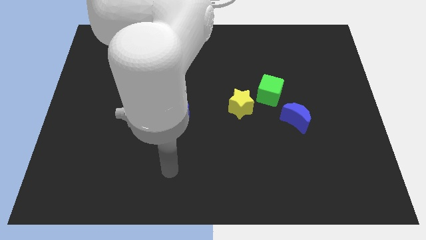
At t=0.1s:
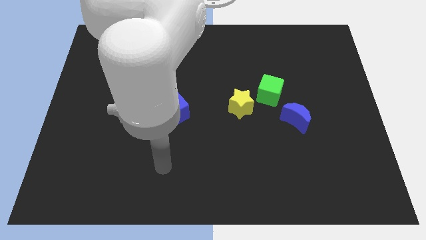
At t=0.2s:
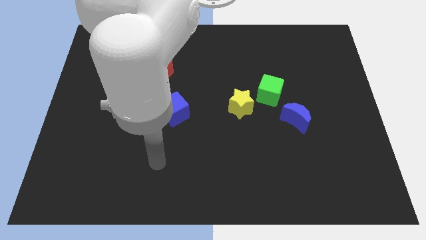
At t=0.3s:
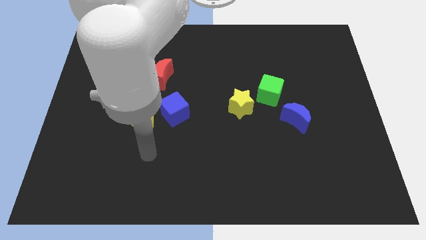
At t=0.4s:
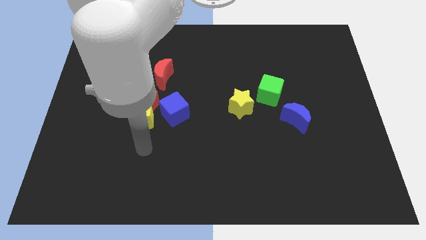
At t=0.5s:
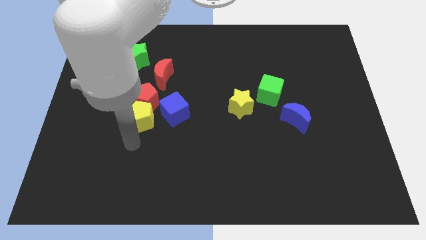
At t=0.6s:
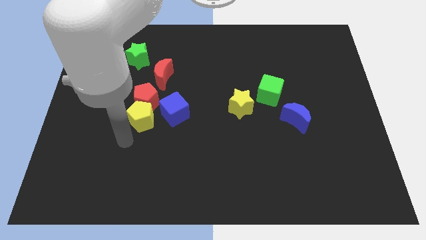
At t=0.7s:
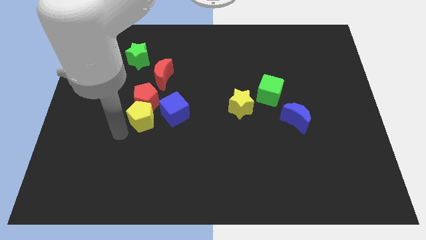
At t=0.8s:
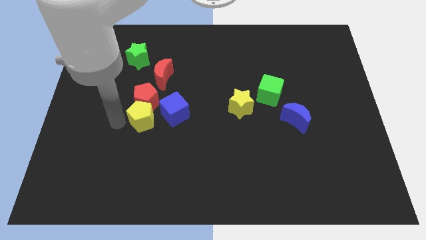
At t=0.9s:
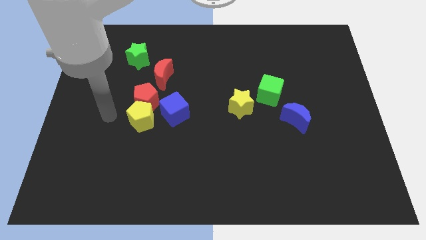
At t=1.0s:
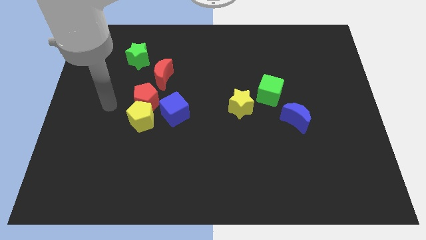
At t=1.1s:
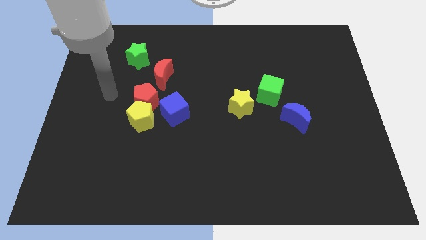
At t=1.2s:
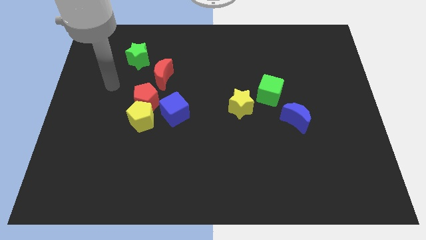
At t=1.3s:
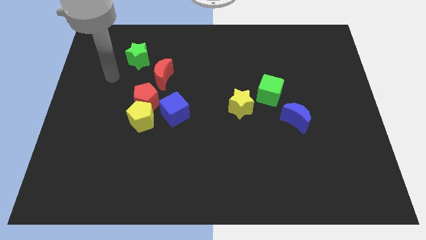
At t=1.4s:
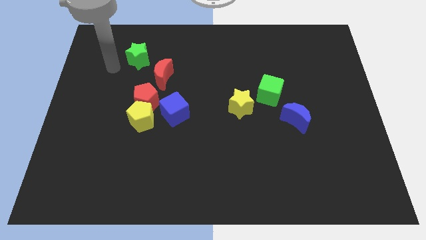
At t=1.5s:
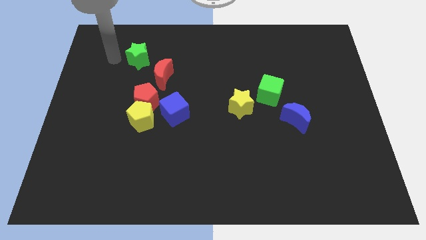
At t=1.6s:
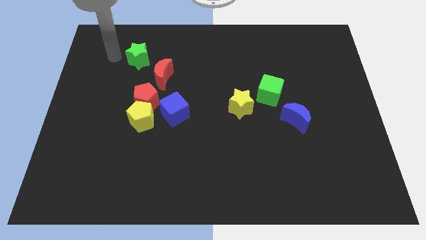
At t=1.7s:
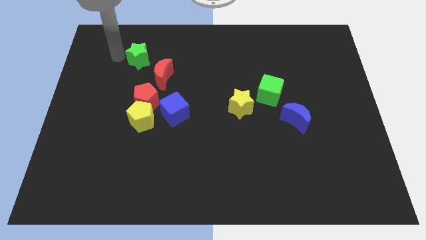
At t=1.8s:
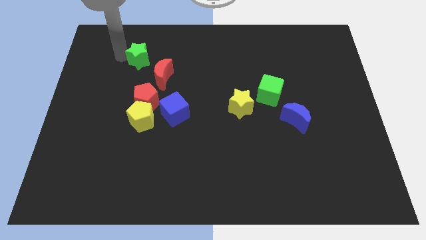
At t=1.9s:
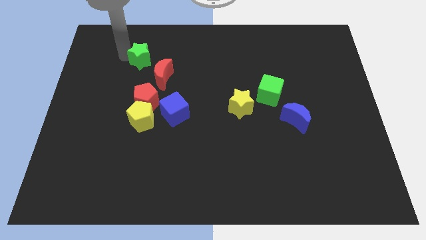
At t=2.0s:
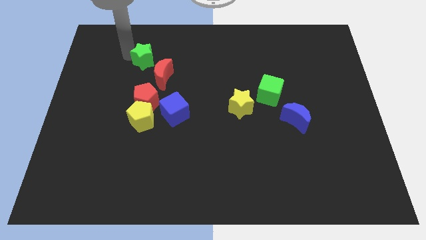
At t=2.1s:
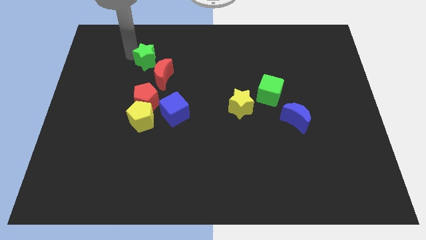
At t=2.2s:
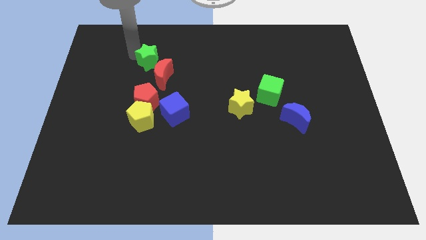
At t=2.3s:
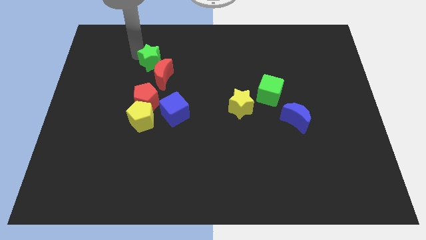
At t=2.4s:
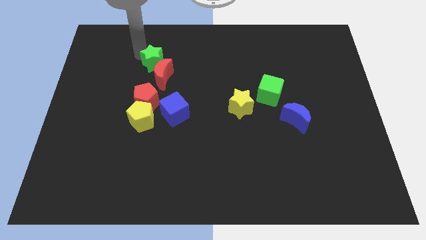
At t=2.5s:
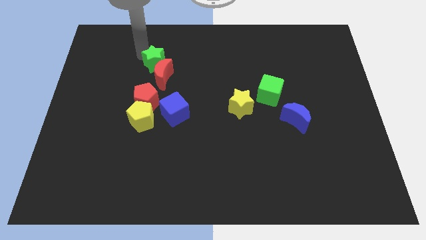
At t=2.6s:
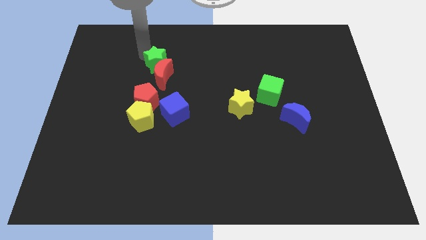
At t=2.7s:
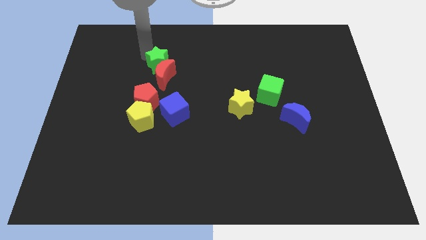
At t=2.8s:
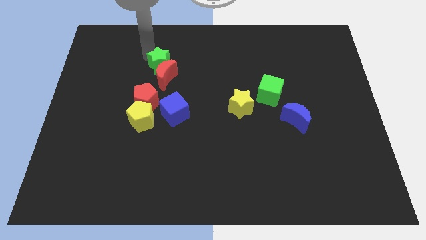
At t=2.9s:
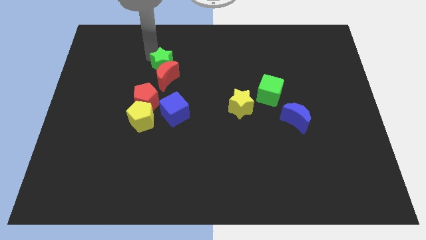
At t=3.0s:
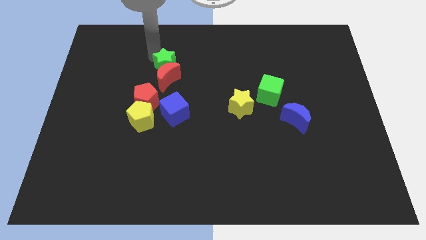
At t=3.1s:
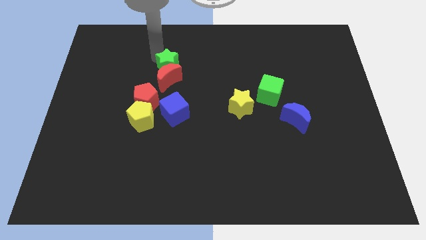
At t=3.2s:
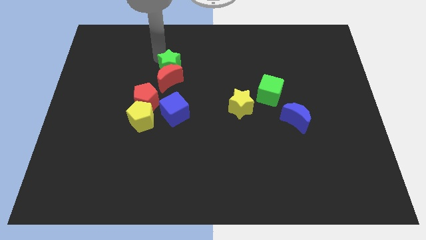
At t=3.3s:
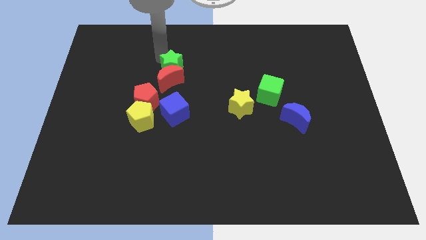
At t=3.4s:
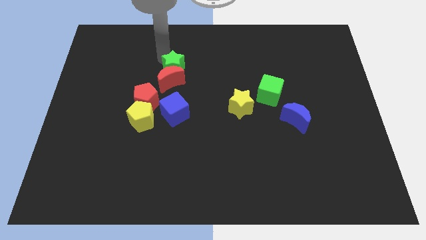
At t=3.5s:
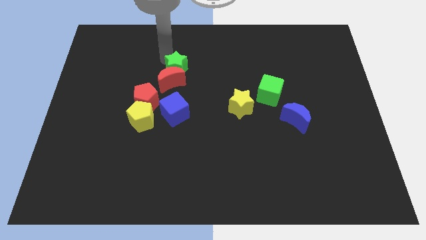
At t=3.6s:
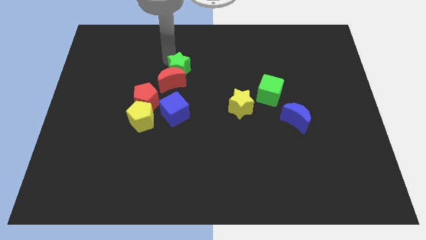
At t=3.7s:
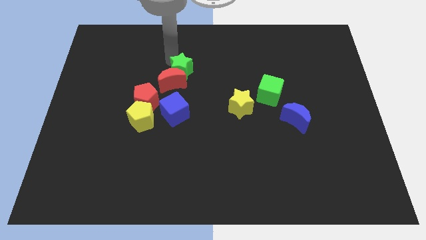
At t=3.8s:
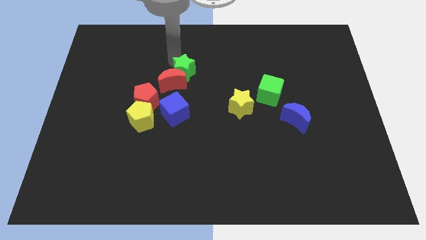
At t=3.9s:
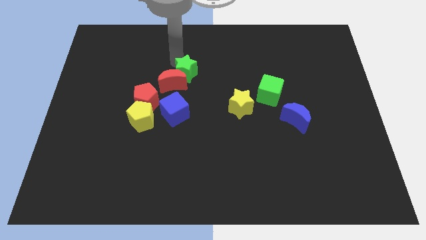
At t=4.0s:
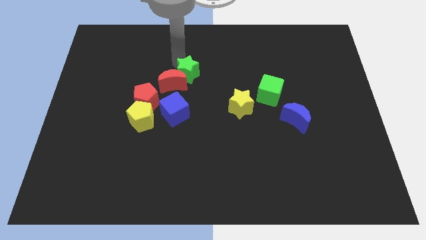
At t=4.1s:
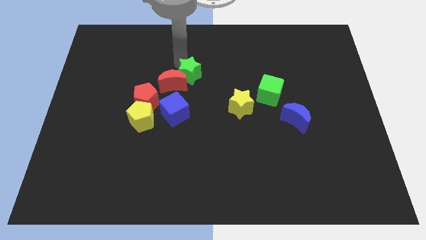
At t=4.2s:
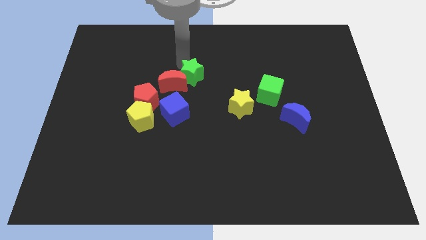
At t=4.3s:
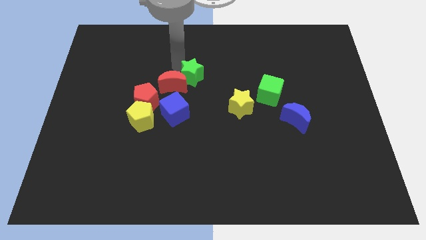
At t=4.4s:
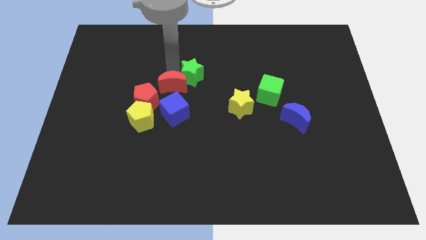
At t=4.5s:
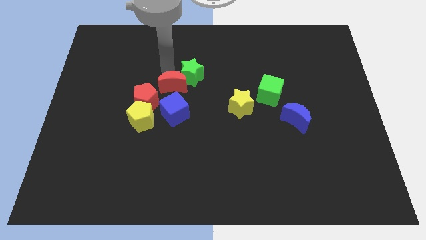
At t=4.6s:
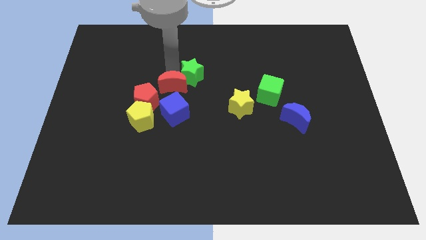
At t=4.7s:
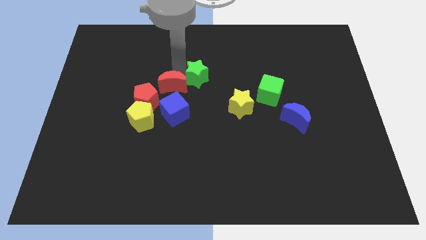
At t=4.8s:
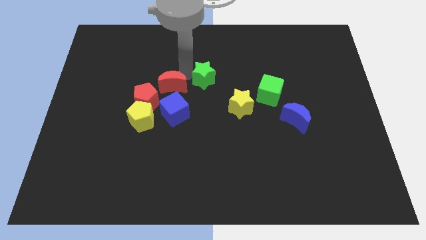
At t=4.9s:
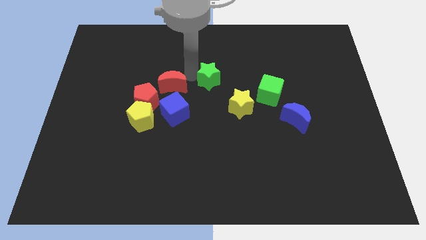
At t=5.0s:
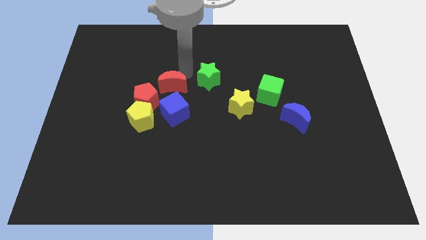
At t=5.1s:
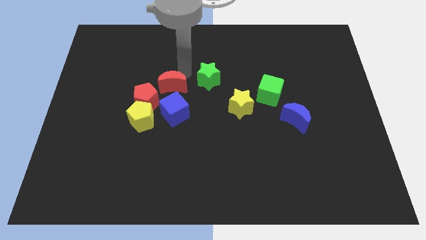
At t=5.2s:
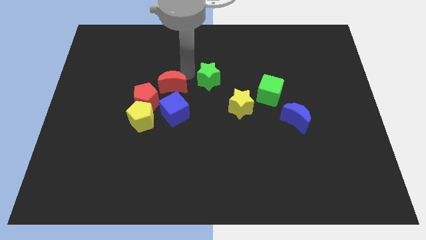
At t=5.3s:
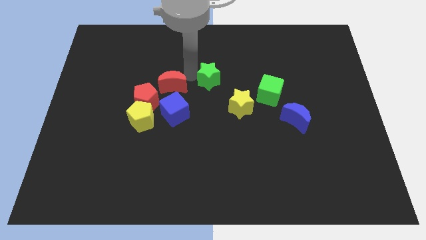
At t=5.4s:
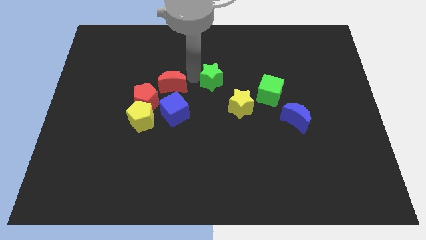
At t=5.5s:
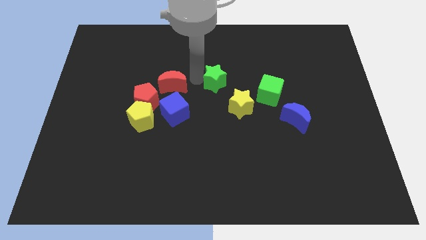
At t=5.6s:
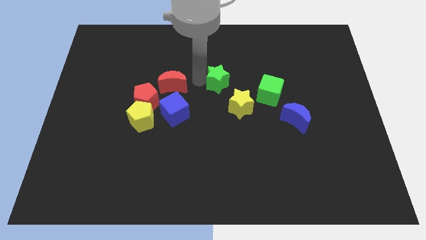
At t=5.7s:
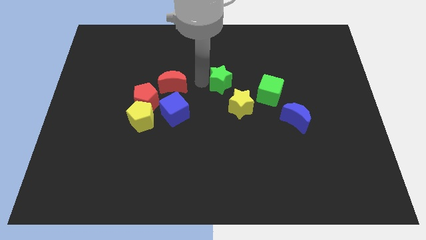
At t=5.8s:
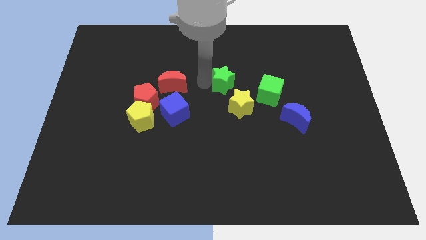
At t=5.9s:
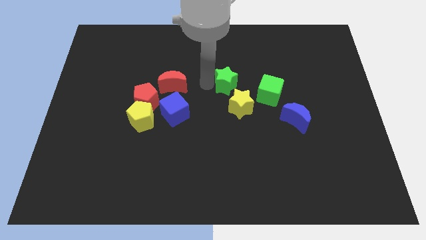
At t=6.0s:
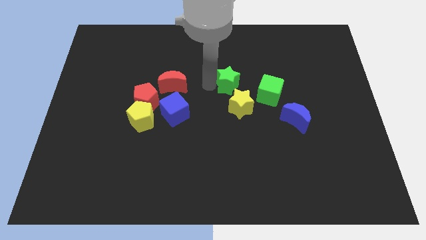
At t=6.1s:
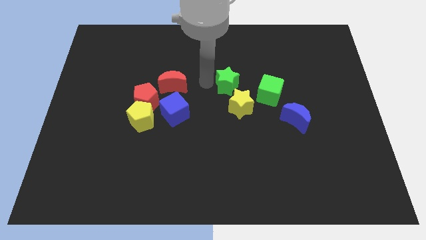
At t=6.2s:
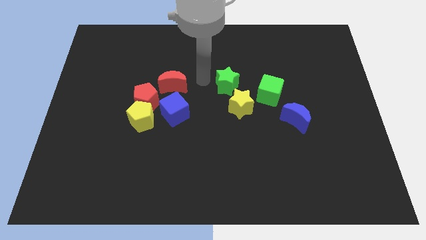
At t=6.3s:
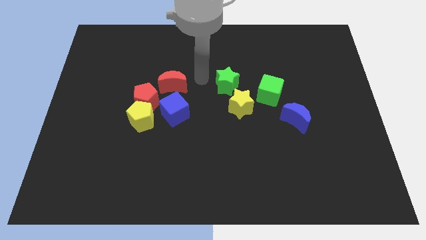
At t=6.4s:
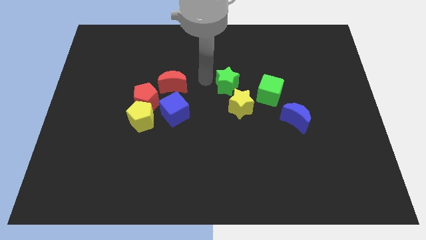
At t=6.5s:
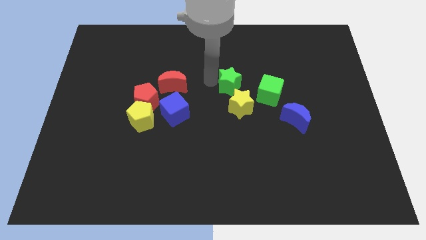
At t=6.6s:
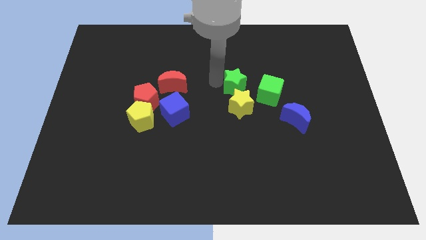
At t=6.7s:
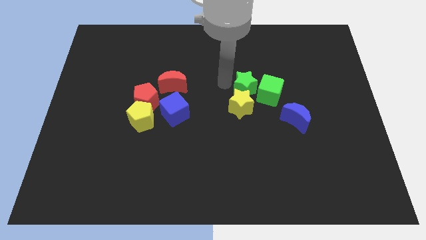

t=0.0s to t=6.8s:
move the green star to the green cube

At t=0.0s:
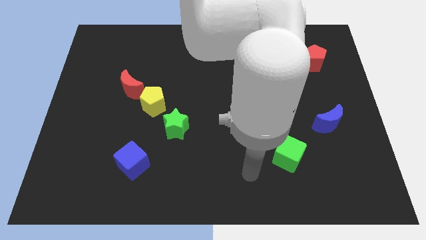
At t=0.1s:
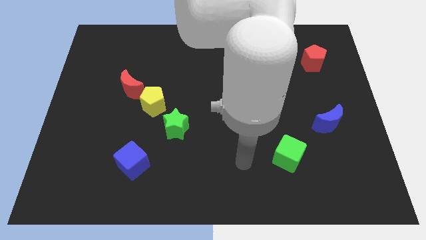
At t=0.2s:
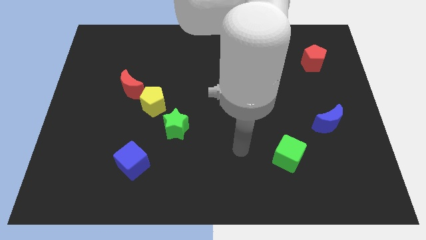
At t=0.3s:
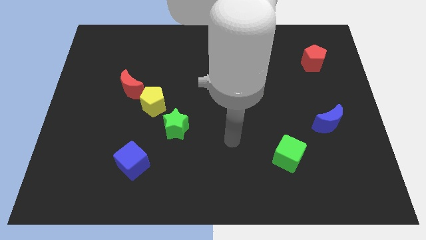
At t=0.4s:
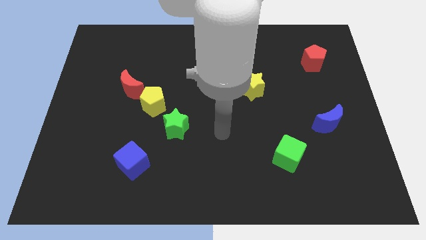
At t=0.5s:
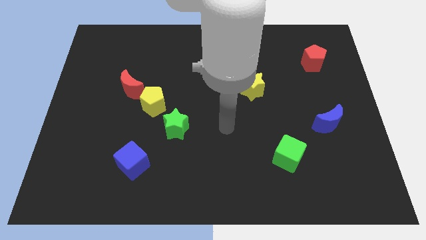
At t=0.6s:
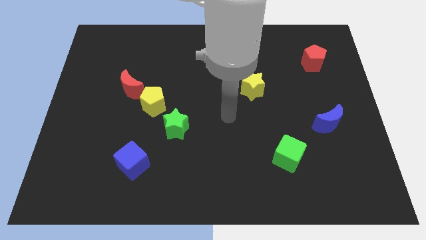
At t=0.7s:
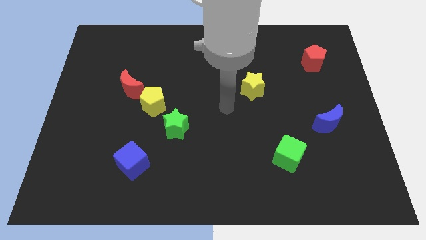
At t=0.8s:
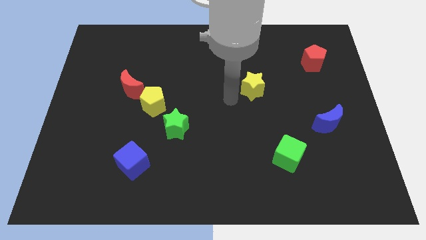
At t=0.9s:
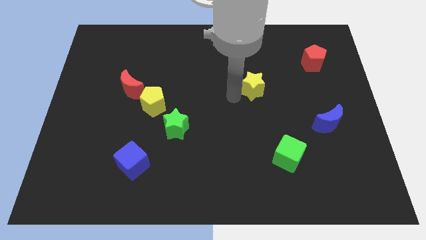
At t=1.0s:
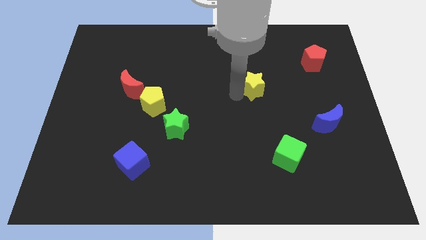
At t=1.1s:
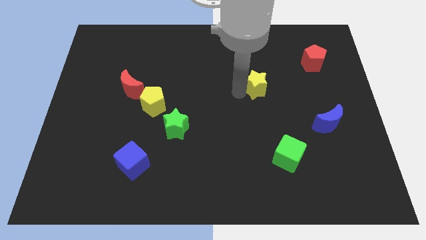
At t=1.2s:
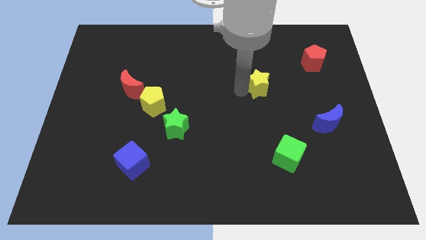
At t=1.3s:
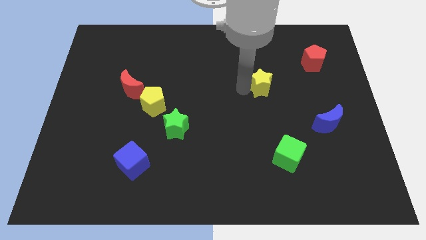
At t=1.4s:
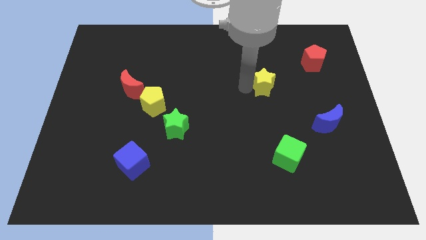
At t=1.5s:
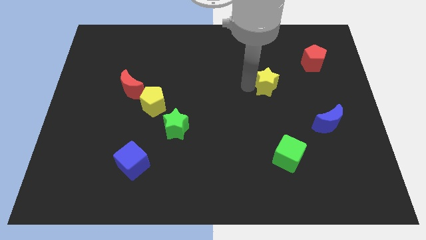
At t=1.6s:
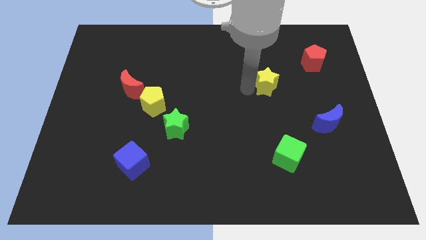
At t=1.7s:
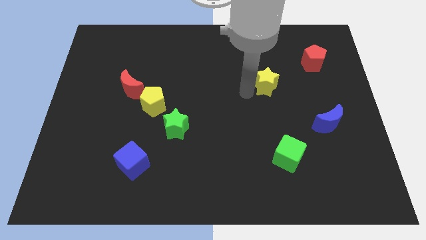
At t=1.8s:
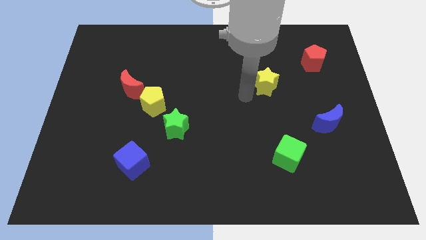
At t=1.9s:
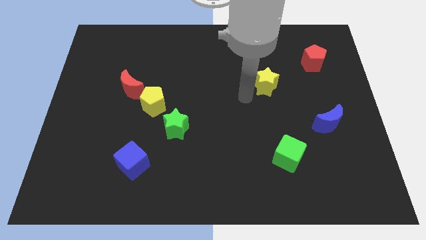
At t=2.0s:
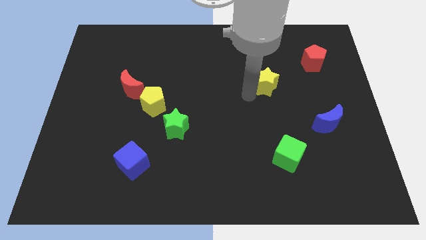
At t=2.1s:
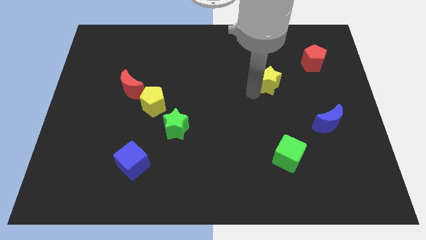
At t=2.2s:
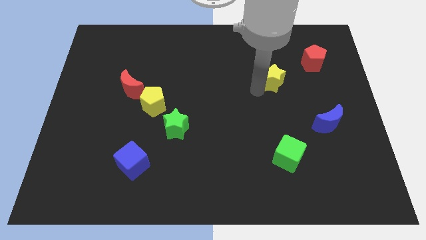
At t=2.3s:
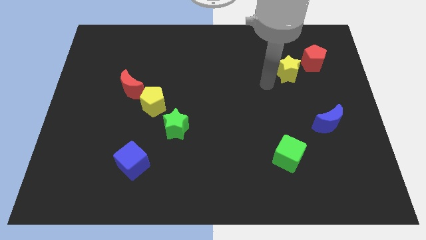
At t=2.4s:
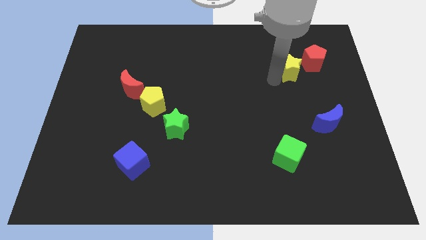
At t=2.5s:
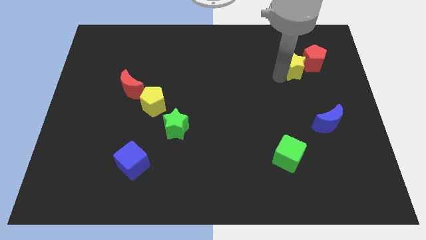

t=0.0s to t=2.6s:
move the yellow star close to the red pentagon
